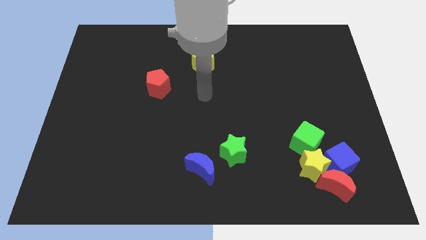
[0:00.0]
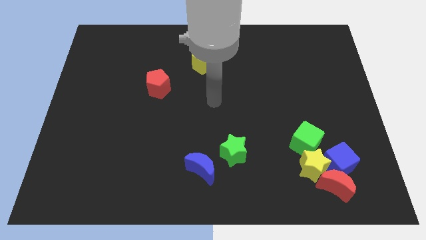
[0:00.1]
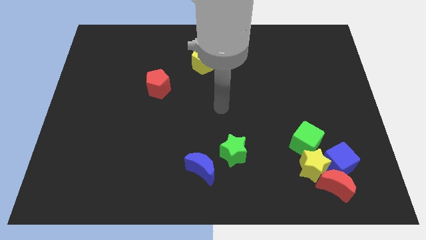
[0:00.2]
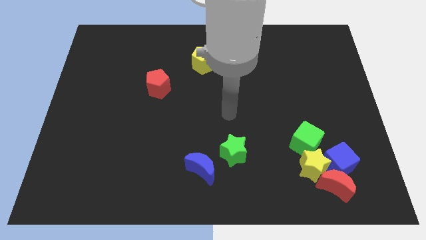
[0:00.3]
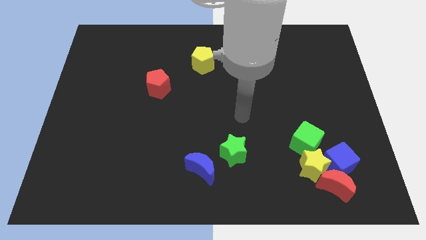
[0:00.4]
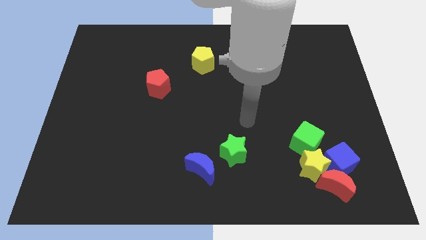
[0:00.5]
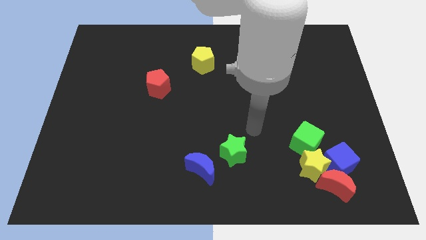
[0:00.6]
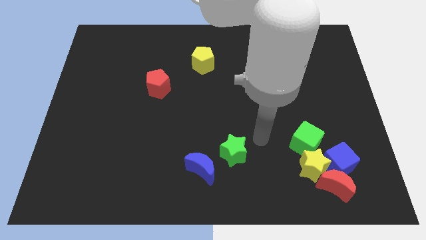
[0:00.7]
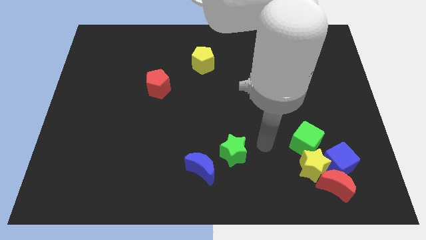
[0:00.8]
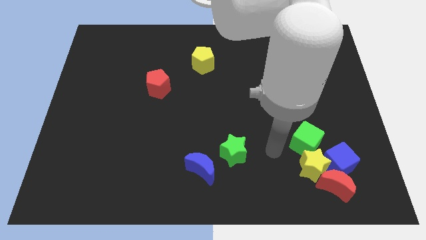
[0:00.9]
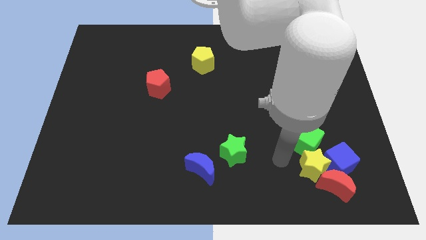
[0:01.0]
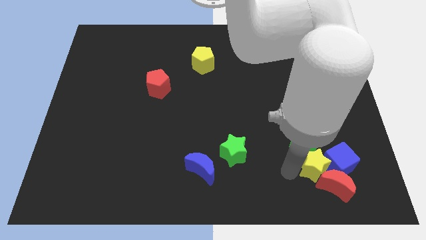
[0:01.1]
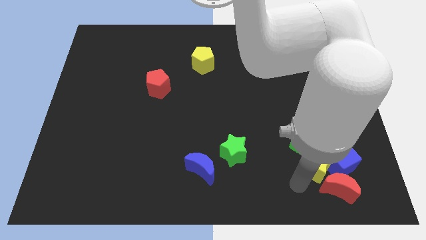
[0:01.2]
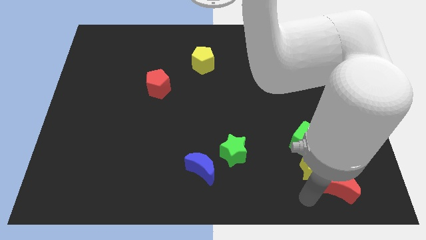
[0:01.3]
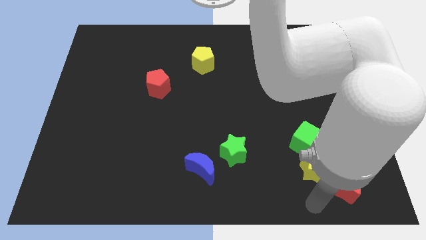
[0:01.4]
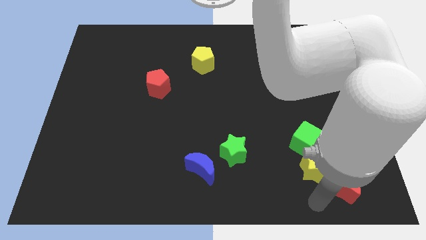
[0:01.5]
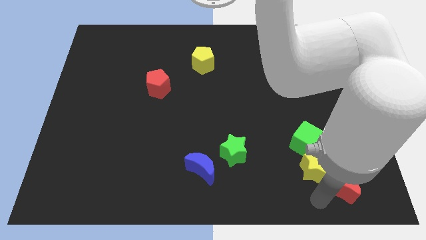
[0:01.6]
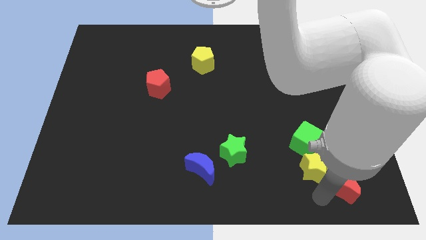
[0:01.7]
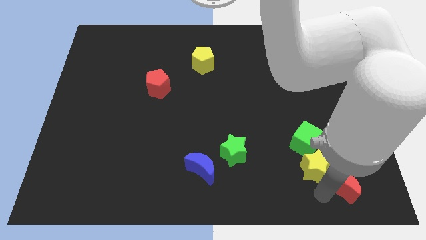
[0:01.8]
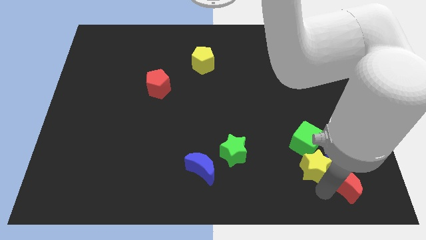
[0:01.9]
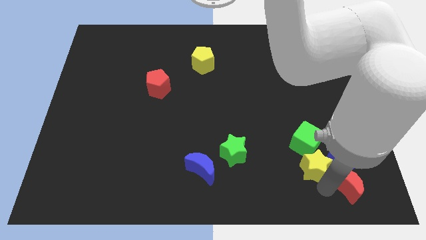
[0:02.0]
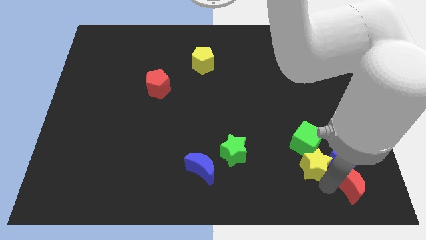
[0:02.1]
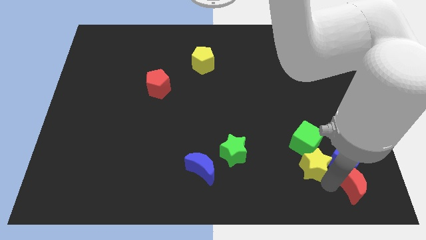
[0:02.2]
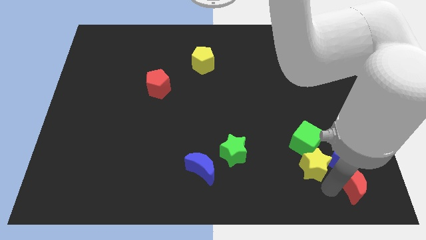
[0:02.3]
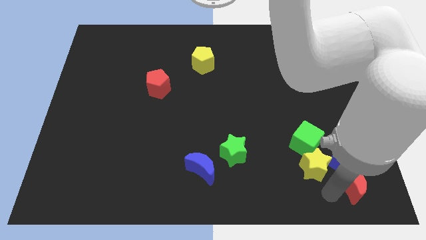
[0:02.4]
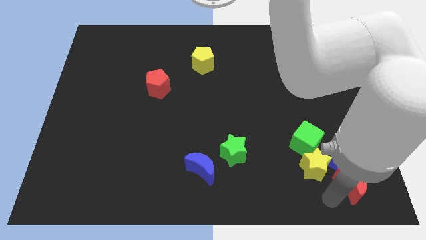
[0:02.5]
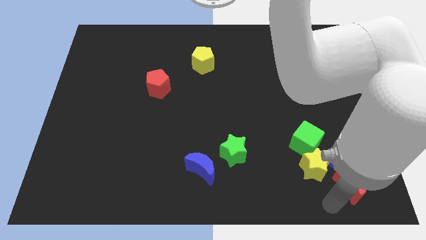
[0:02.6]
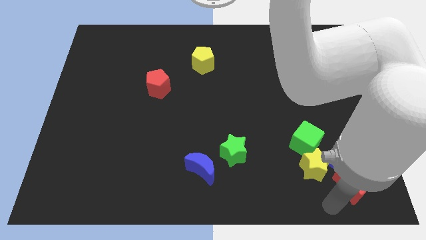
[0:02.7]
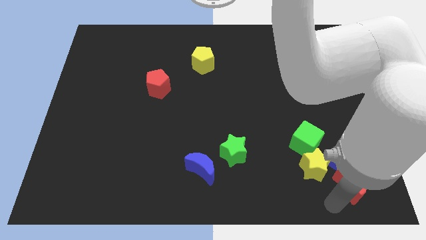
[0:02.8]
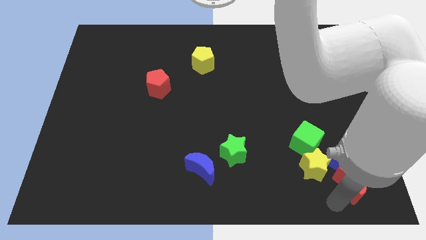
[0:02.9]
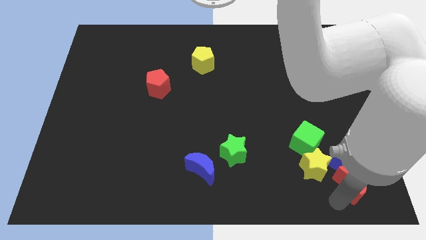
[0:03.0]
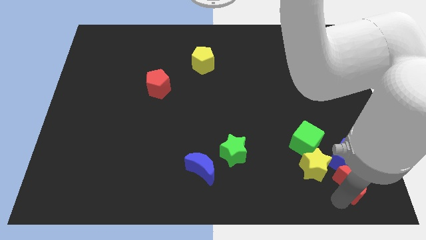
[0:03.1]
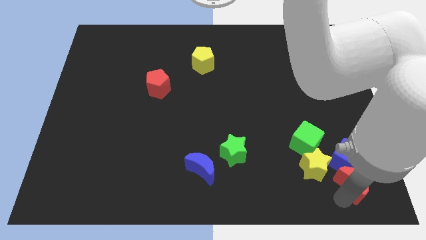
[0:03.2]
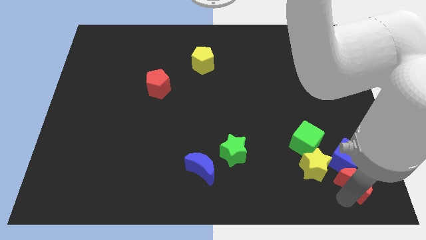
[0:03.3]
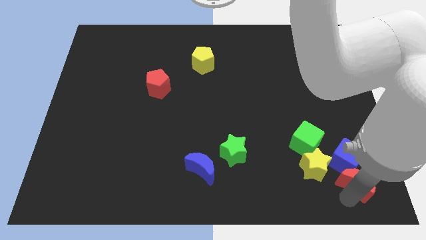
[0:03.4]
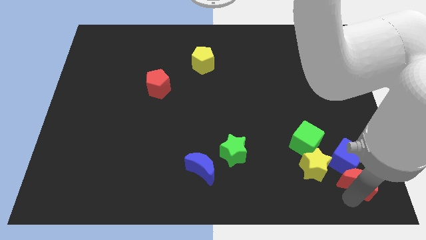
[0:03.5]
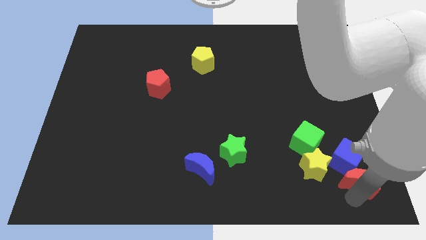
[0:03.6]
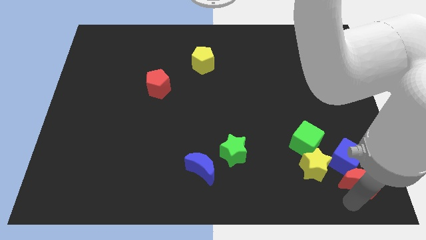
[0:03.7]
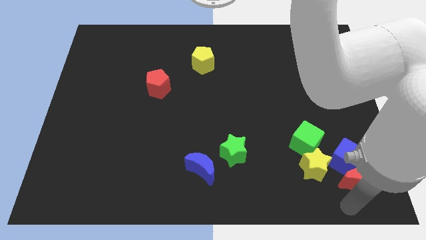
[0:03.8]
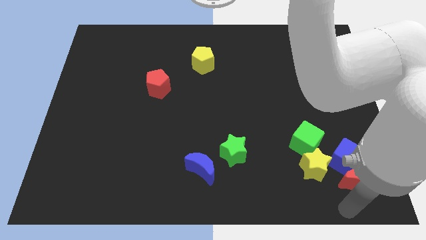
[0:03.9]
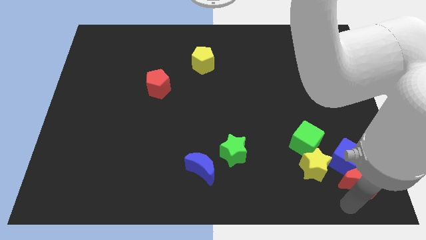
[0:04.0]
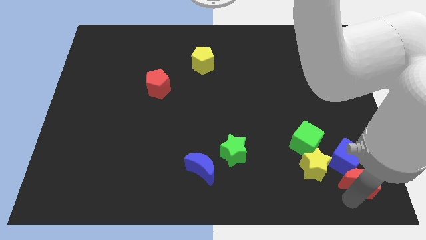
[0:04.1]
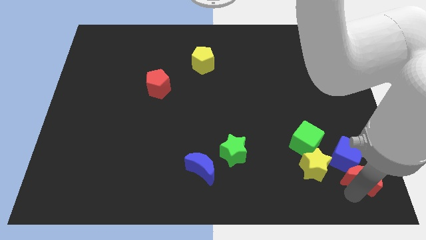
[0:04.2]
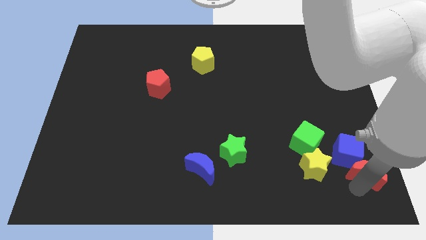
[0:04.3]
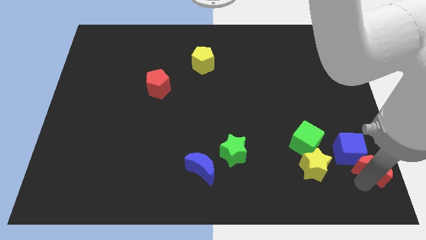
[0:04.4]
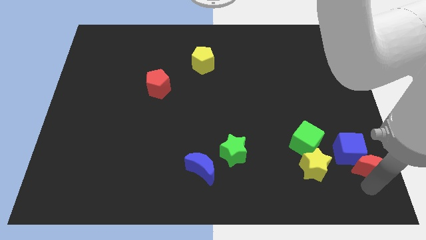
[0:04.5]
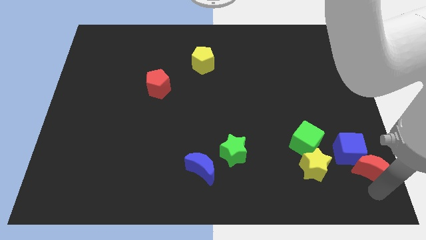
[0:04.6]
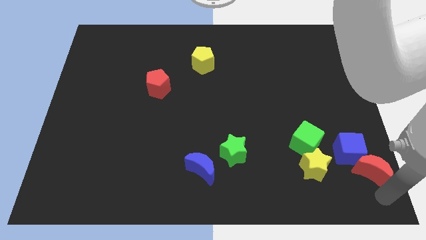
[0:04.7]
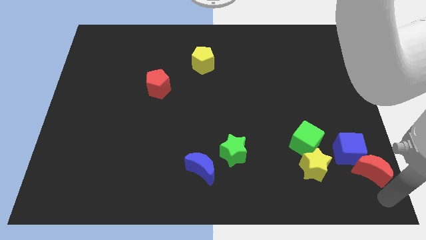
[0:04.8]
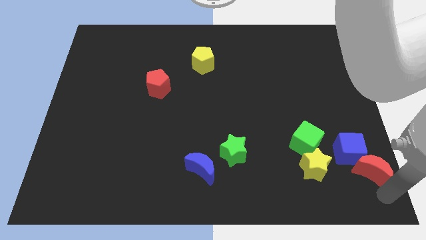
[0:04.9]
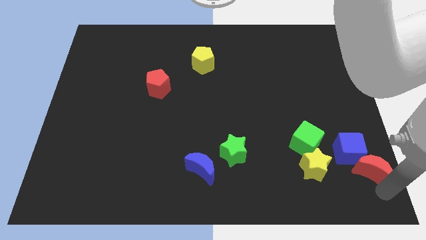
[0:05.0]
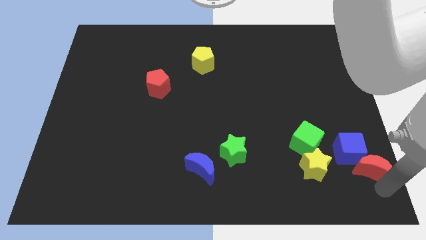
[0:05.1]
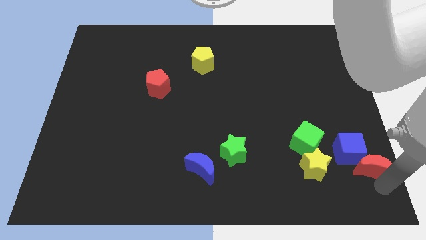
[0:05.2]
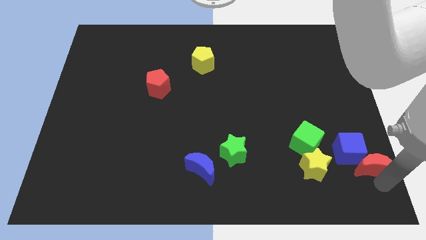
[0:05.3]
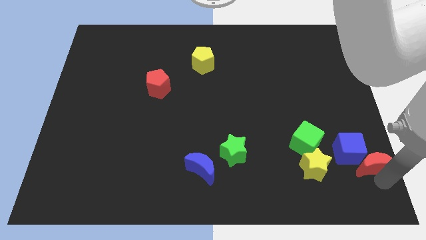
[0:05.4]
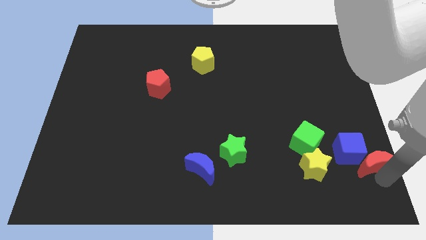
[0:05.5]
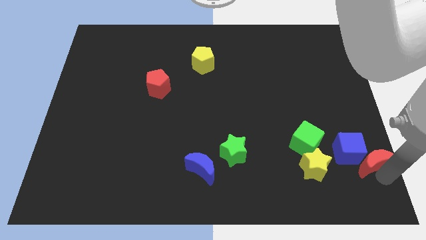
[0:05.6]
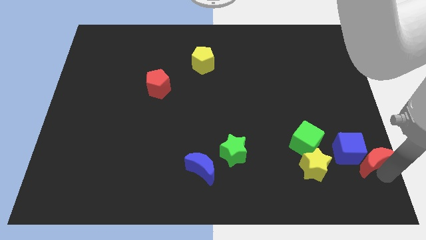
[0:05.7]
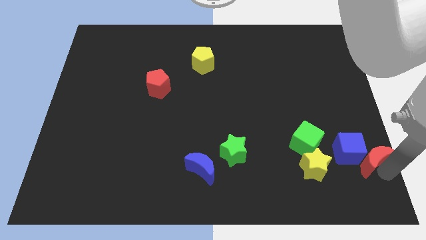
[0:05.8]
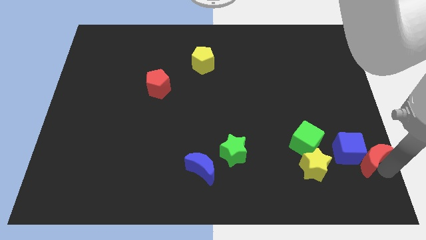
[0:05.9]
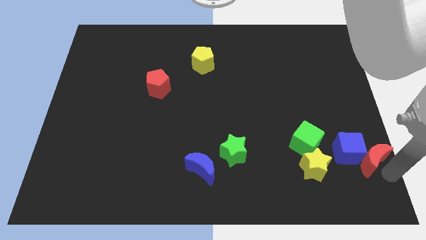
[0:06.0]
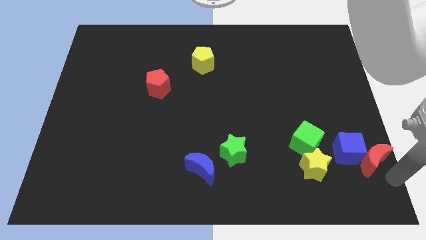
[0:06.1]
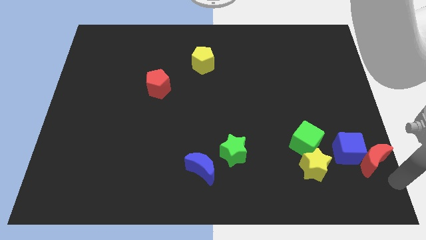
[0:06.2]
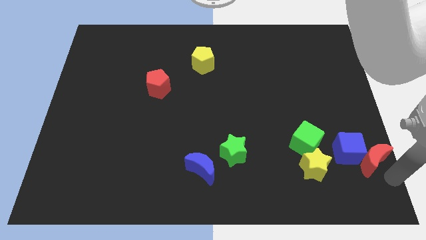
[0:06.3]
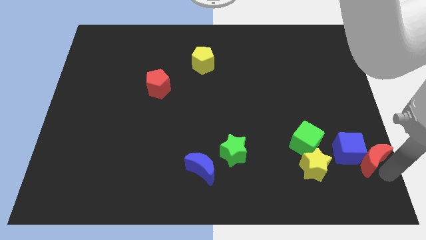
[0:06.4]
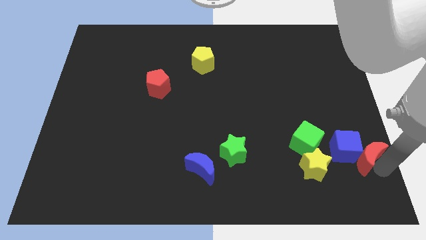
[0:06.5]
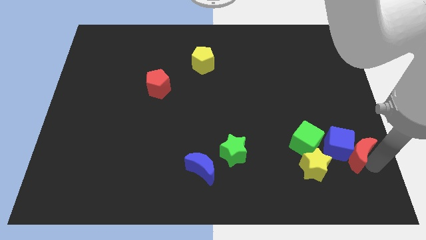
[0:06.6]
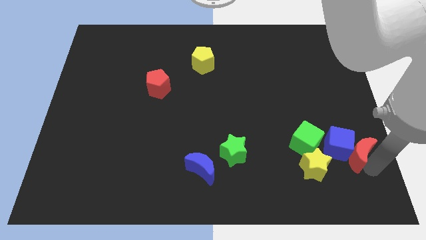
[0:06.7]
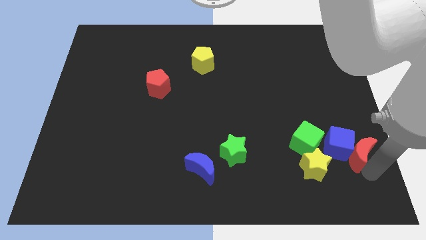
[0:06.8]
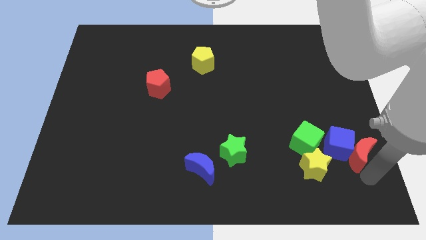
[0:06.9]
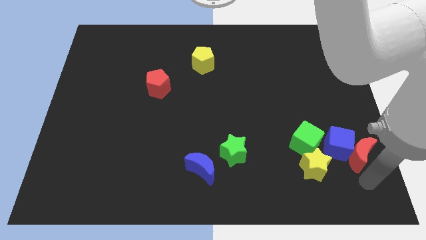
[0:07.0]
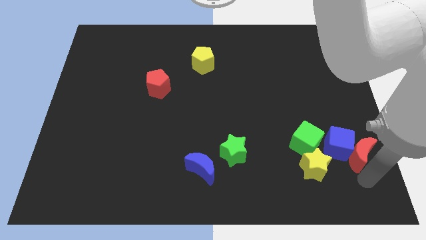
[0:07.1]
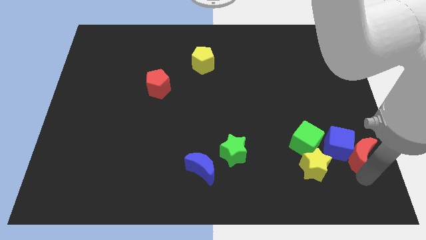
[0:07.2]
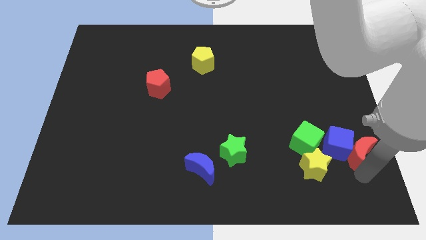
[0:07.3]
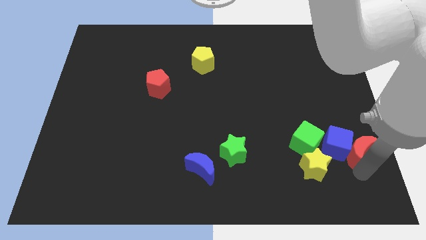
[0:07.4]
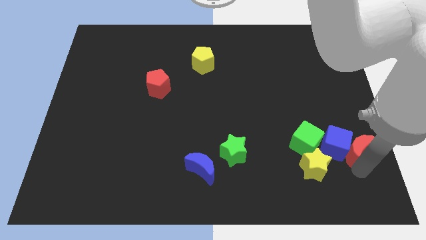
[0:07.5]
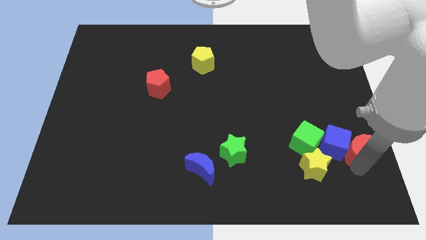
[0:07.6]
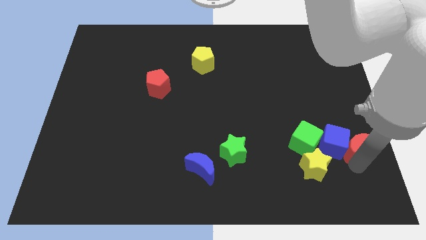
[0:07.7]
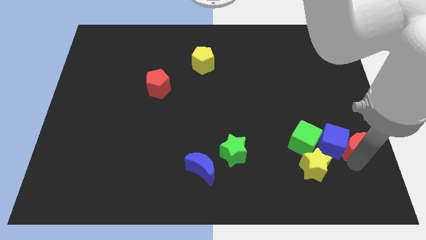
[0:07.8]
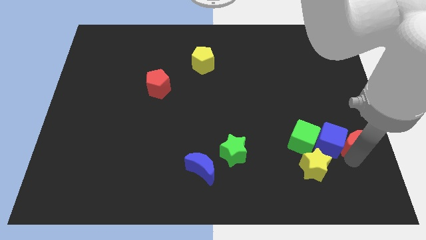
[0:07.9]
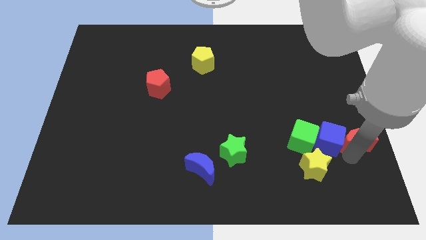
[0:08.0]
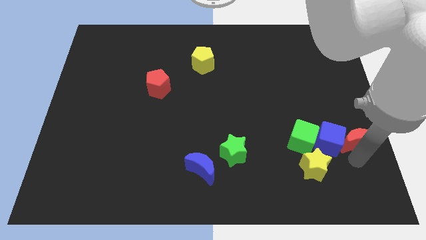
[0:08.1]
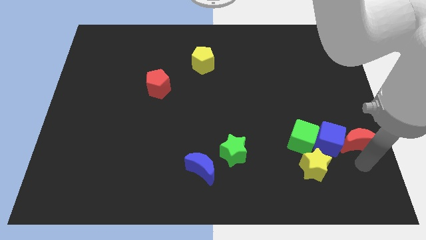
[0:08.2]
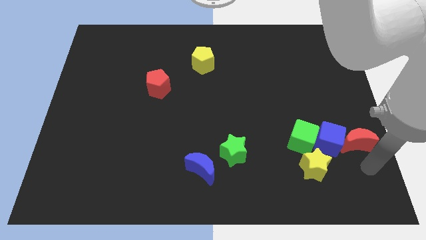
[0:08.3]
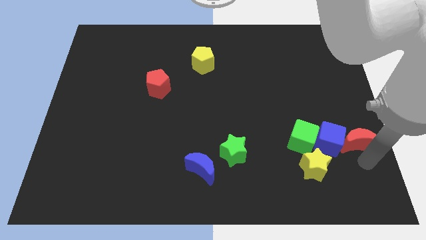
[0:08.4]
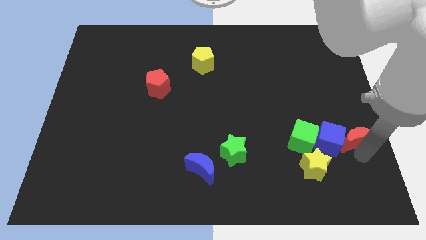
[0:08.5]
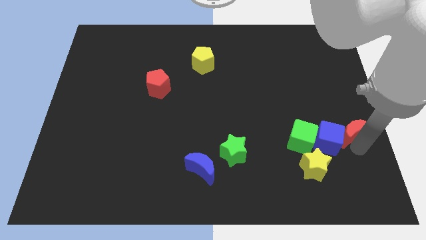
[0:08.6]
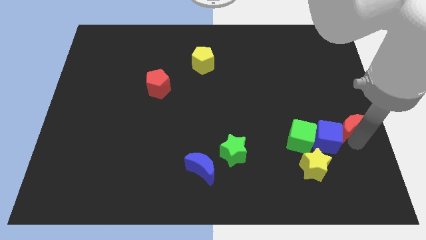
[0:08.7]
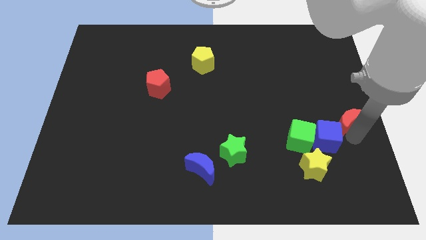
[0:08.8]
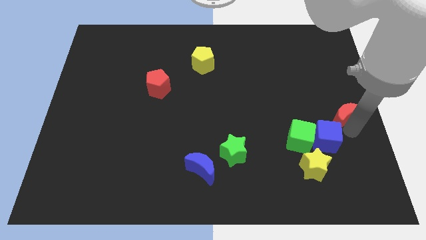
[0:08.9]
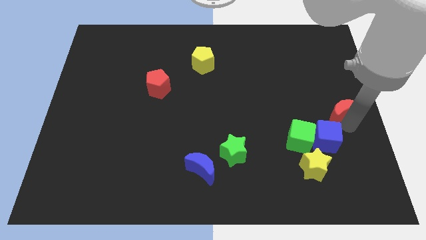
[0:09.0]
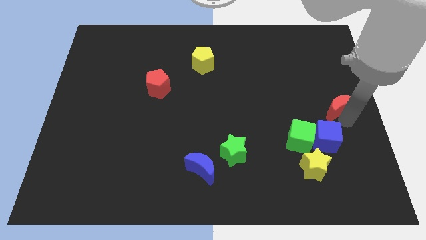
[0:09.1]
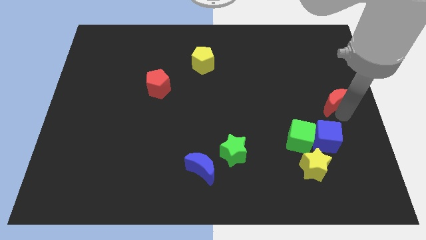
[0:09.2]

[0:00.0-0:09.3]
move the red moon up
